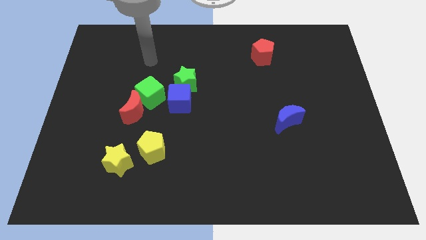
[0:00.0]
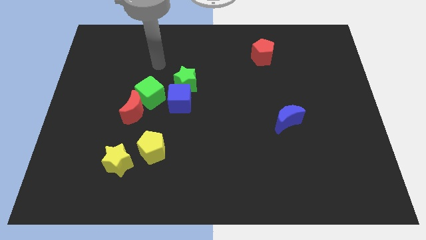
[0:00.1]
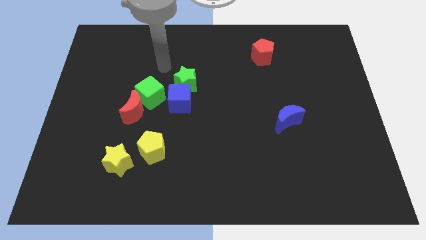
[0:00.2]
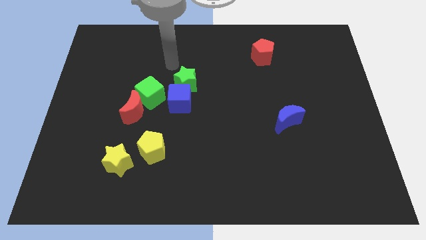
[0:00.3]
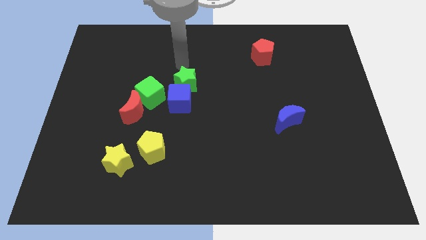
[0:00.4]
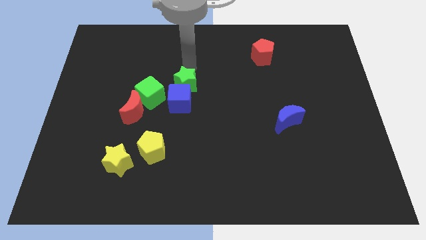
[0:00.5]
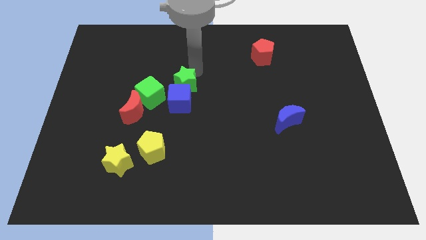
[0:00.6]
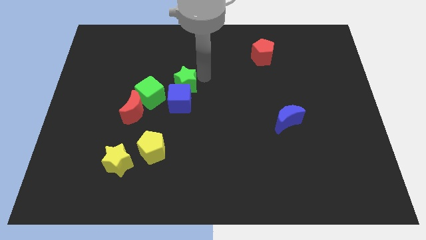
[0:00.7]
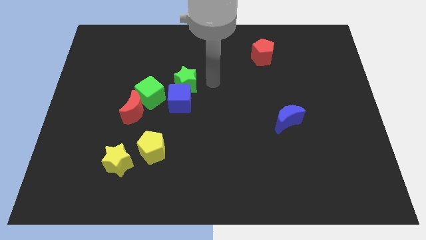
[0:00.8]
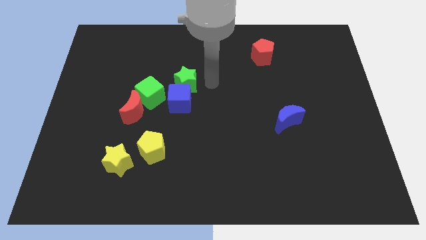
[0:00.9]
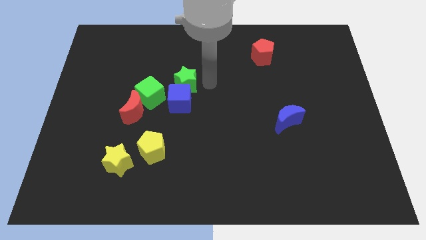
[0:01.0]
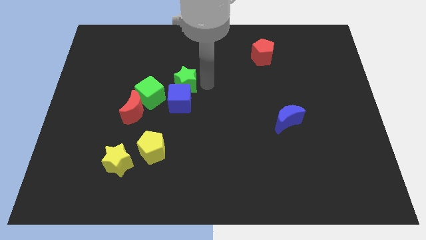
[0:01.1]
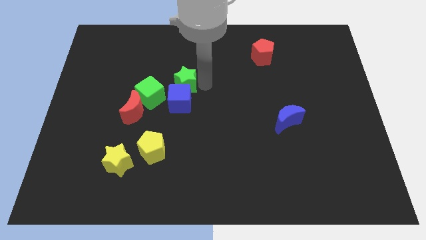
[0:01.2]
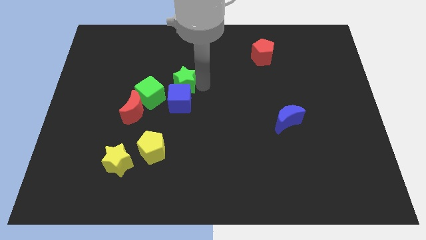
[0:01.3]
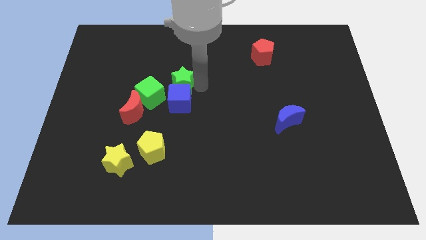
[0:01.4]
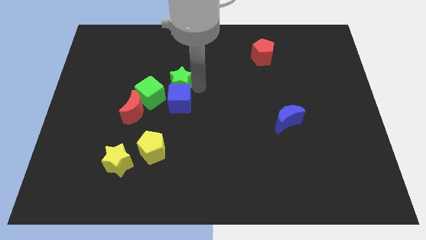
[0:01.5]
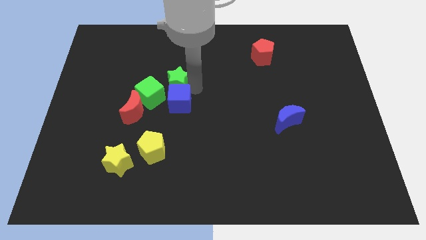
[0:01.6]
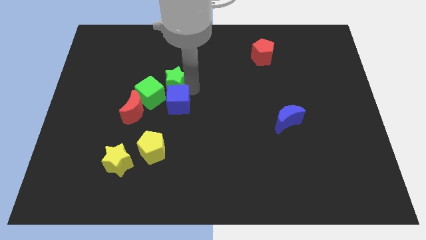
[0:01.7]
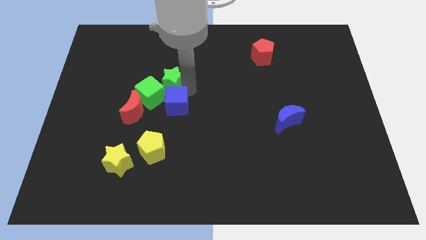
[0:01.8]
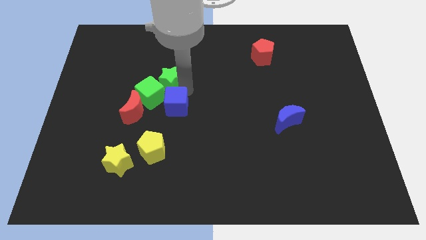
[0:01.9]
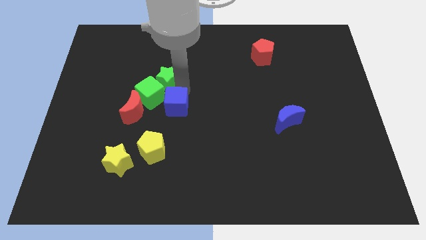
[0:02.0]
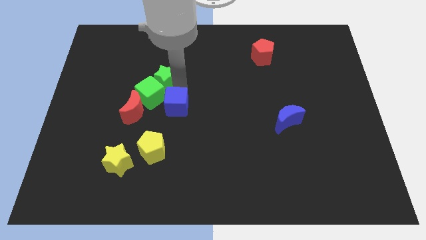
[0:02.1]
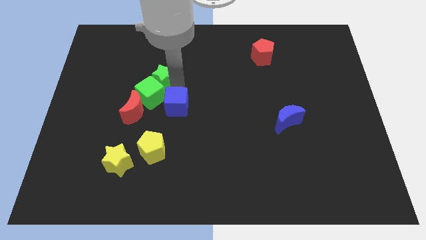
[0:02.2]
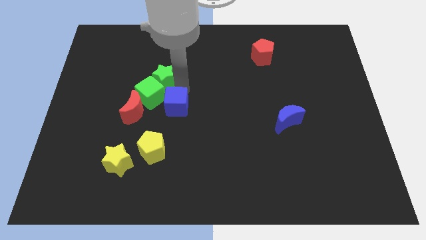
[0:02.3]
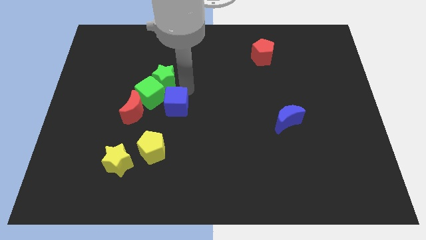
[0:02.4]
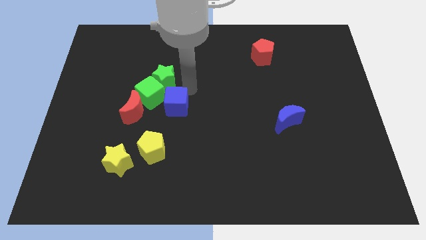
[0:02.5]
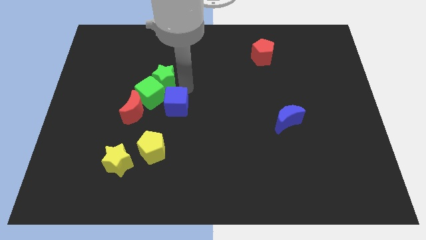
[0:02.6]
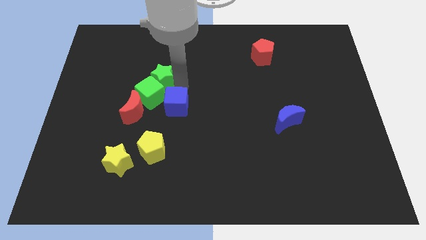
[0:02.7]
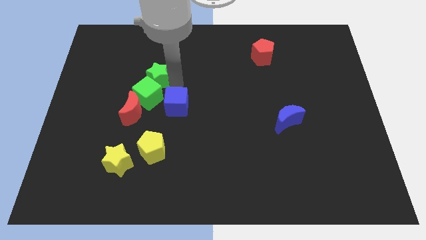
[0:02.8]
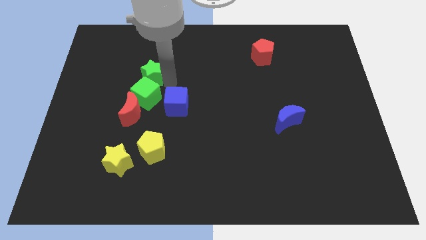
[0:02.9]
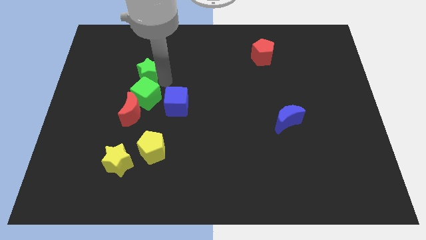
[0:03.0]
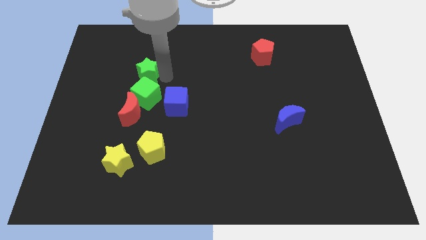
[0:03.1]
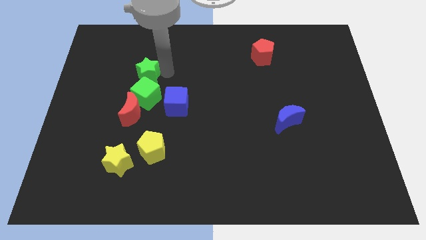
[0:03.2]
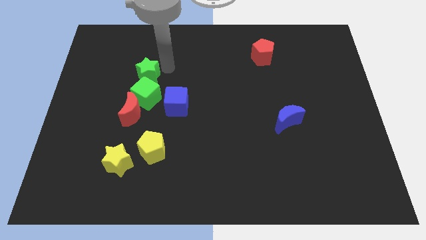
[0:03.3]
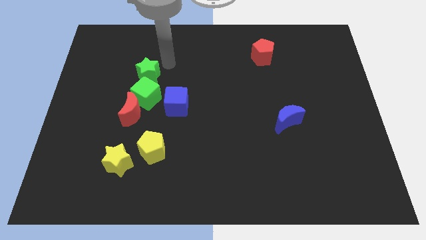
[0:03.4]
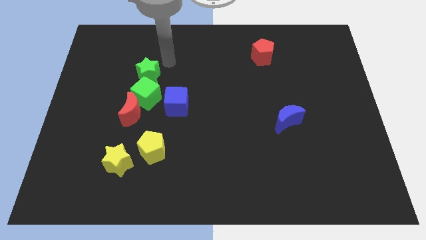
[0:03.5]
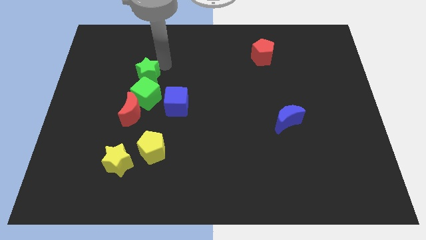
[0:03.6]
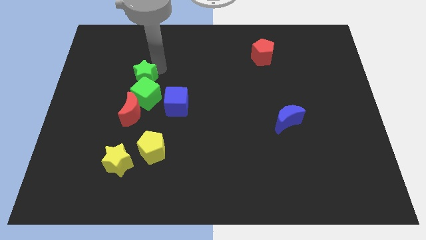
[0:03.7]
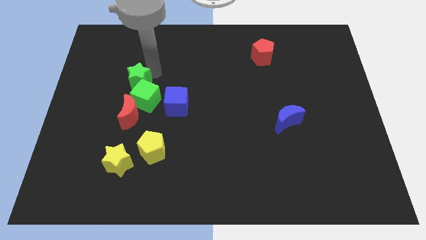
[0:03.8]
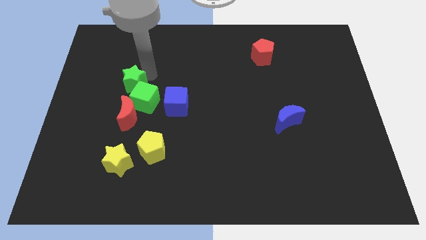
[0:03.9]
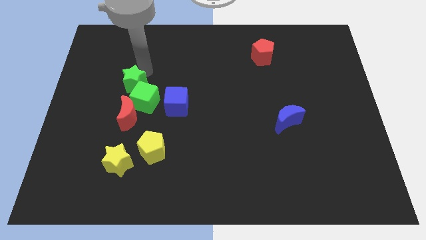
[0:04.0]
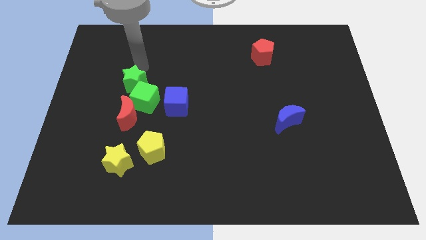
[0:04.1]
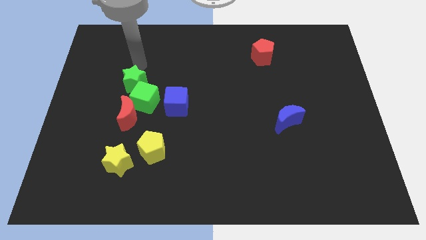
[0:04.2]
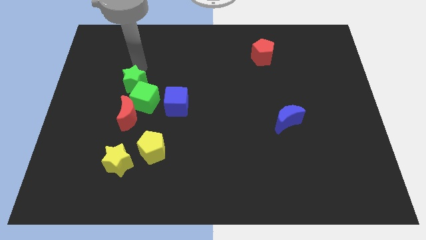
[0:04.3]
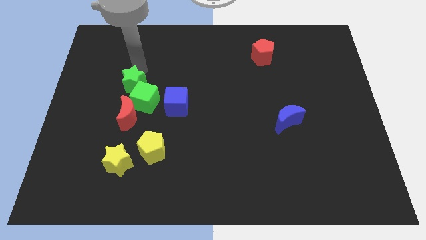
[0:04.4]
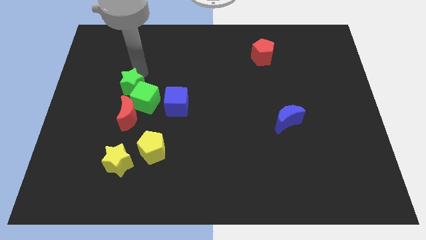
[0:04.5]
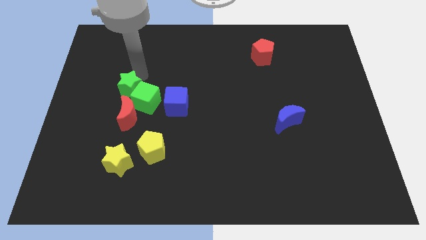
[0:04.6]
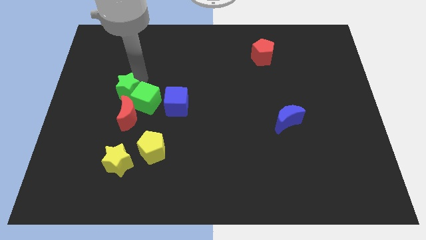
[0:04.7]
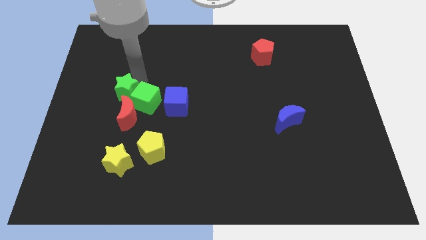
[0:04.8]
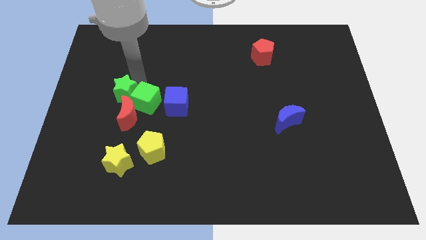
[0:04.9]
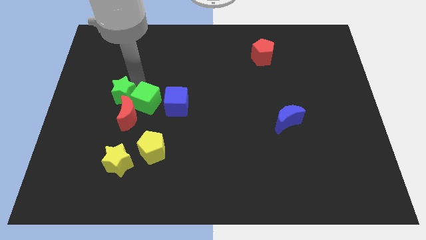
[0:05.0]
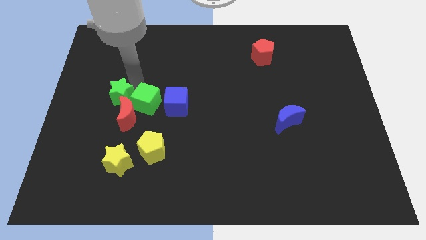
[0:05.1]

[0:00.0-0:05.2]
push the green star close to the red moon

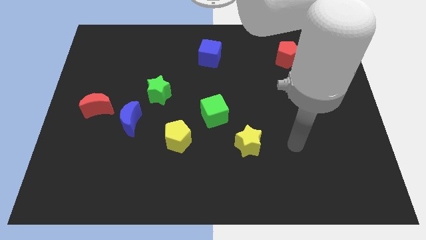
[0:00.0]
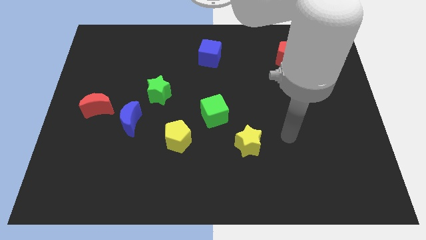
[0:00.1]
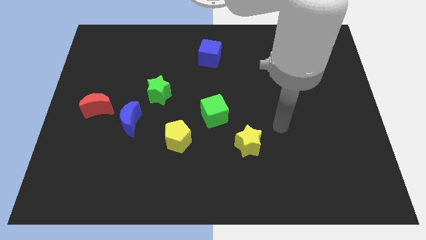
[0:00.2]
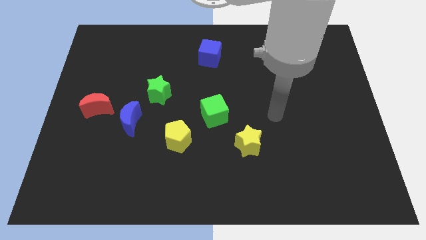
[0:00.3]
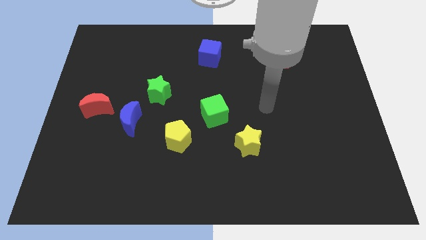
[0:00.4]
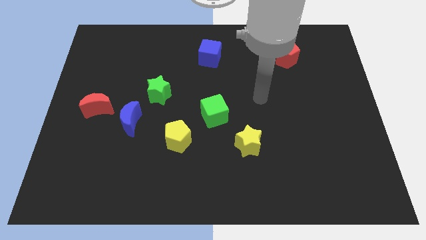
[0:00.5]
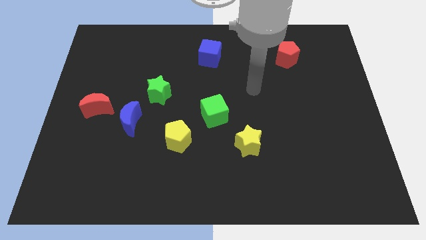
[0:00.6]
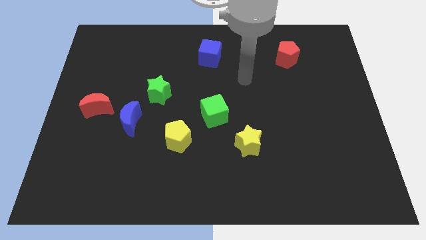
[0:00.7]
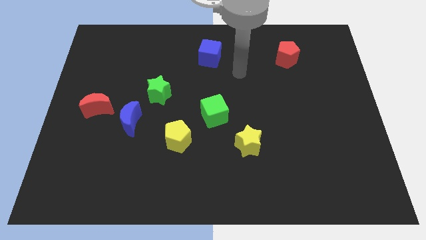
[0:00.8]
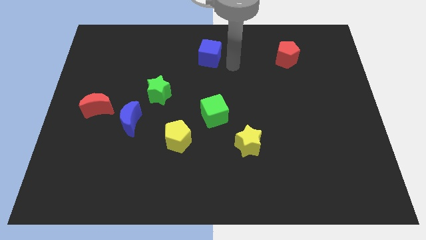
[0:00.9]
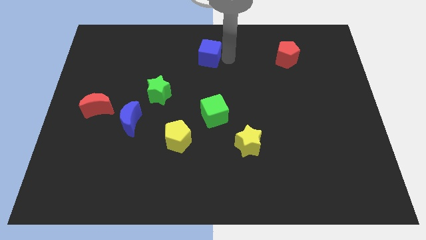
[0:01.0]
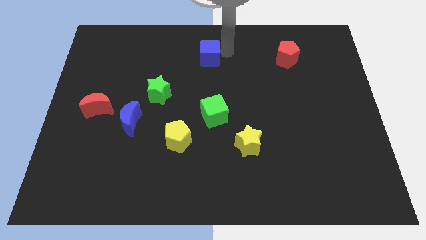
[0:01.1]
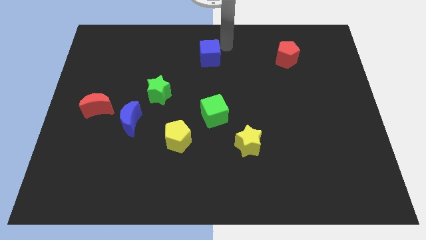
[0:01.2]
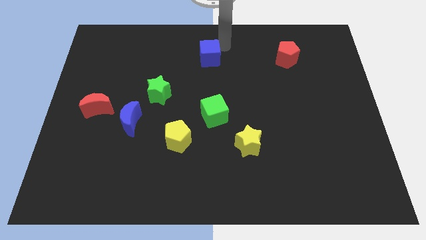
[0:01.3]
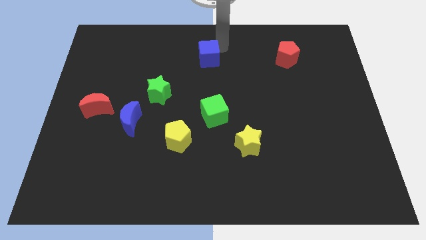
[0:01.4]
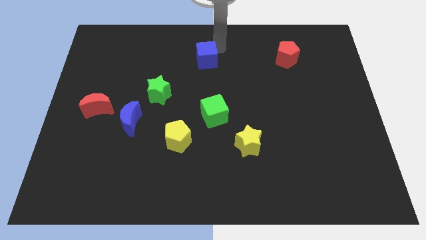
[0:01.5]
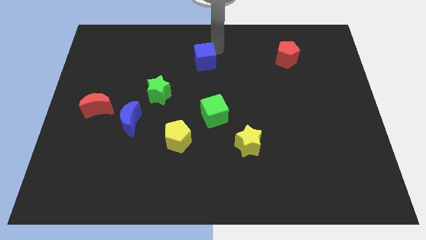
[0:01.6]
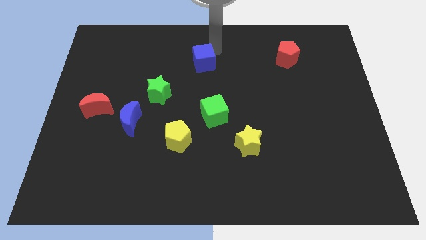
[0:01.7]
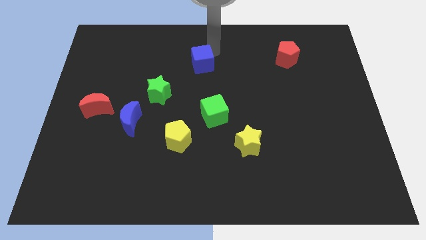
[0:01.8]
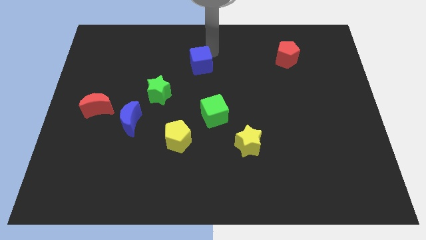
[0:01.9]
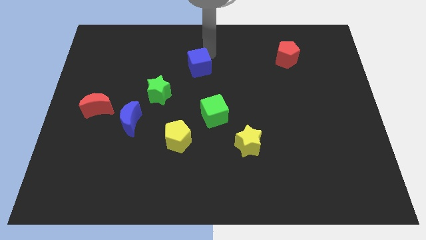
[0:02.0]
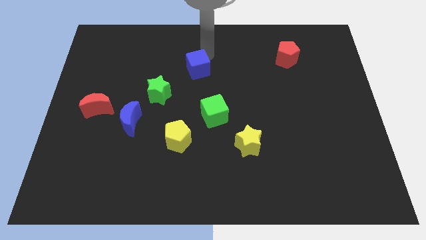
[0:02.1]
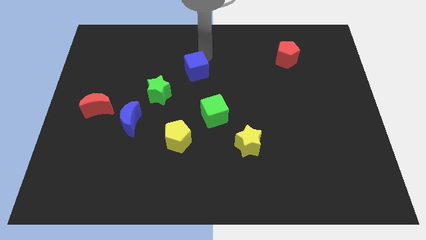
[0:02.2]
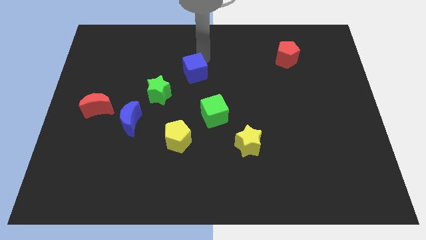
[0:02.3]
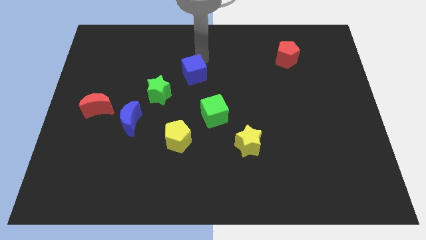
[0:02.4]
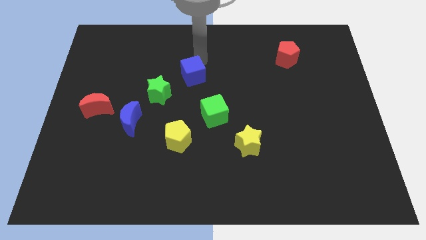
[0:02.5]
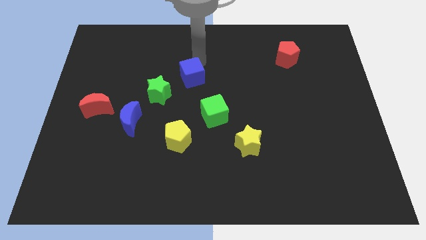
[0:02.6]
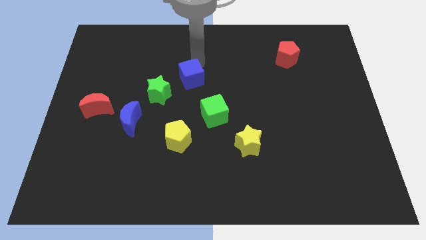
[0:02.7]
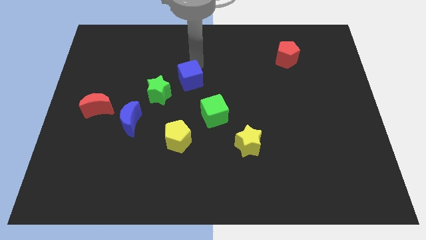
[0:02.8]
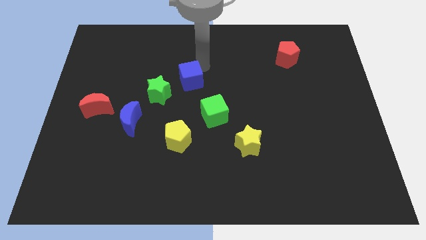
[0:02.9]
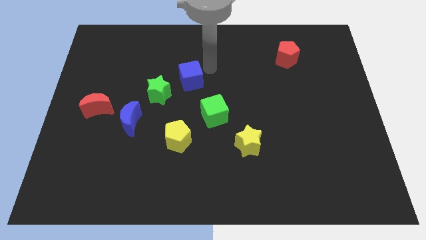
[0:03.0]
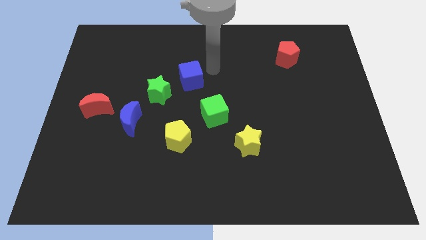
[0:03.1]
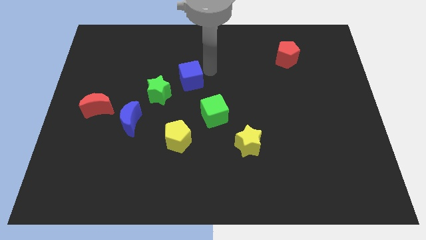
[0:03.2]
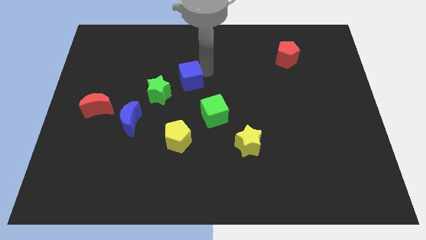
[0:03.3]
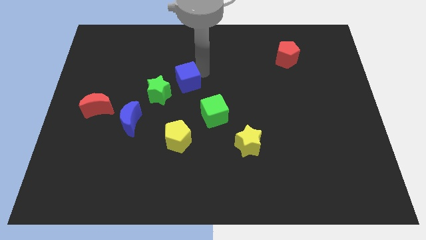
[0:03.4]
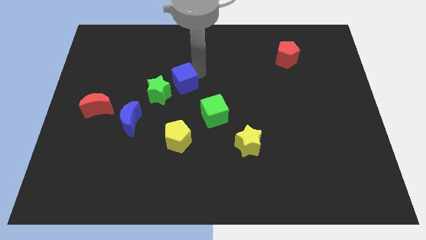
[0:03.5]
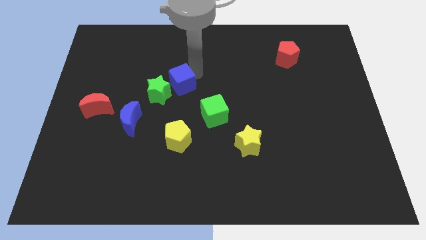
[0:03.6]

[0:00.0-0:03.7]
push the blue cube close to the green star
